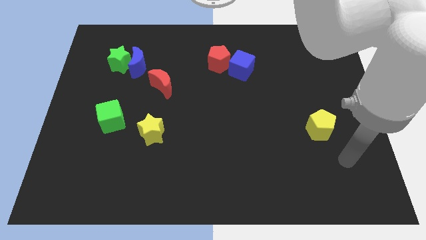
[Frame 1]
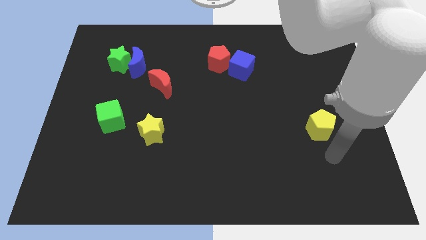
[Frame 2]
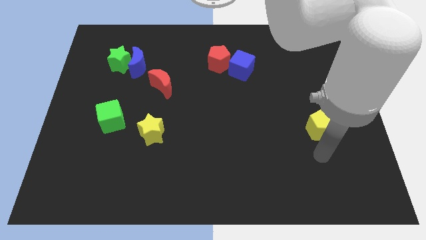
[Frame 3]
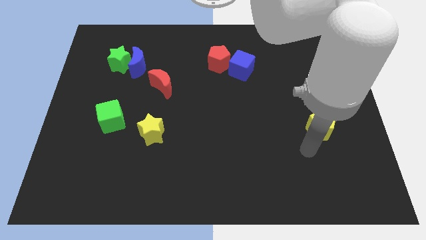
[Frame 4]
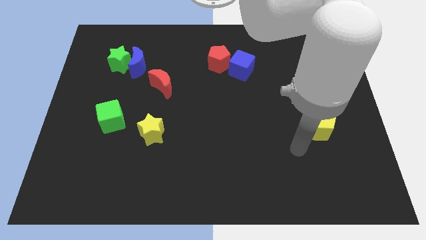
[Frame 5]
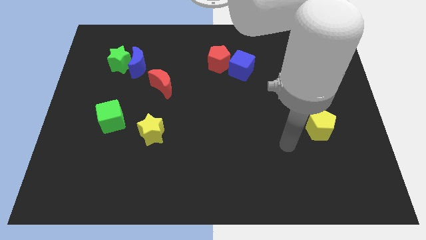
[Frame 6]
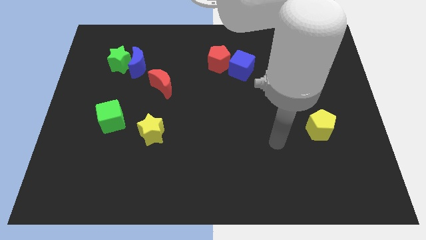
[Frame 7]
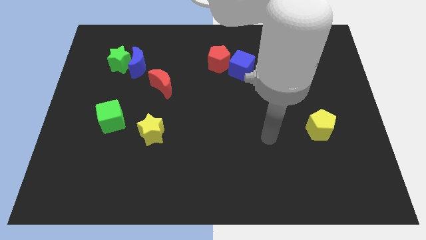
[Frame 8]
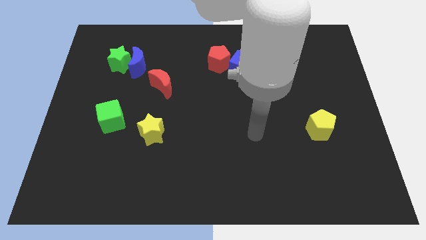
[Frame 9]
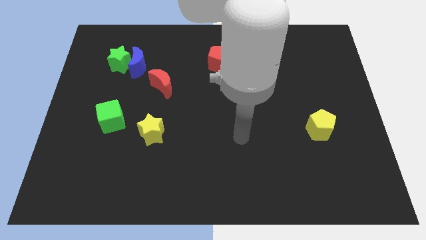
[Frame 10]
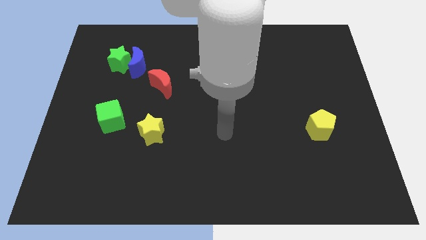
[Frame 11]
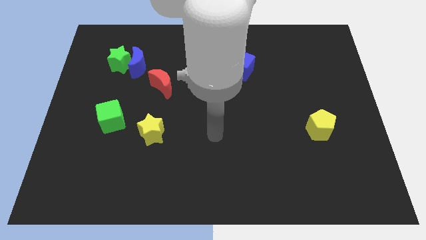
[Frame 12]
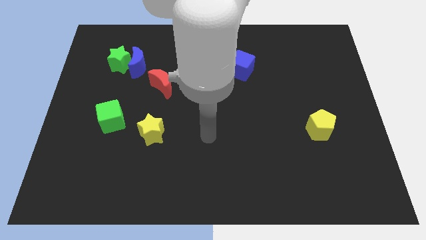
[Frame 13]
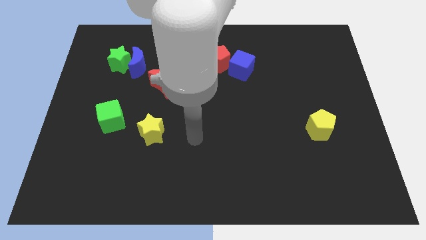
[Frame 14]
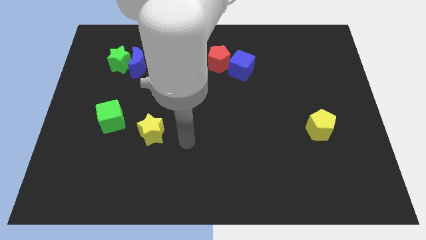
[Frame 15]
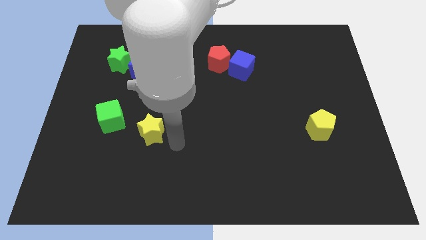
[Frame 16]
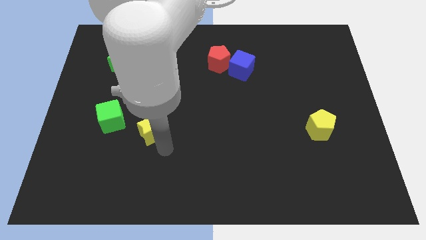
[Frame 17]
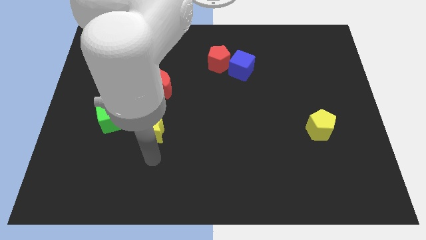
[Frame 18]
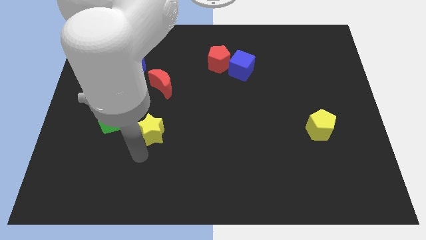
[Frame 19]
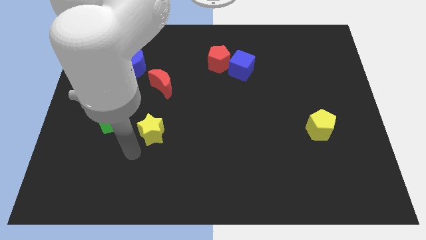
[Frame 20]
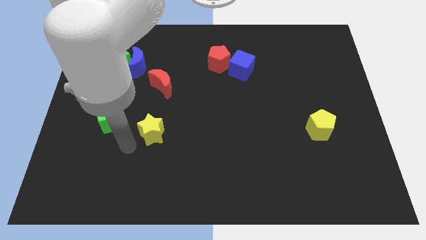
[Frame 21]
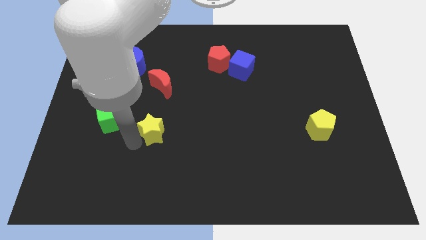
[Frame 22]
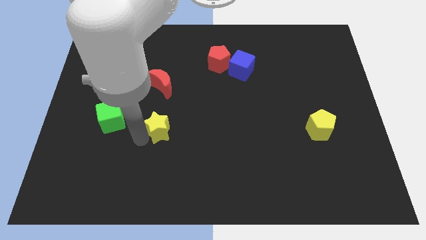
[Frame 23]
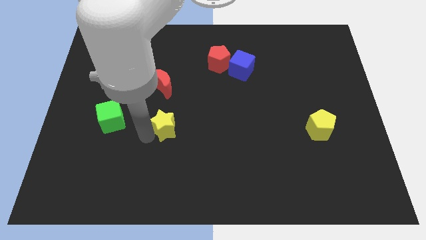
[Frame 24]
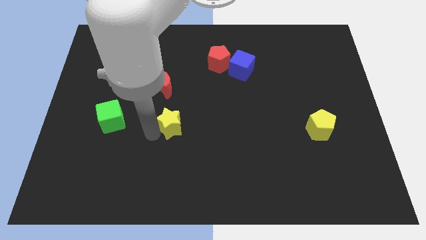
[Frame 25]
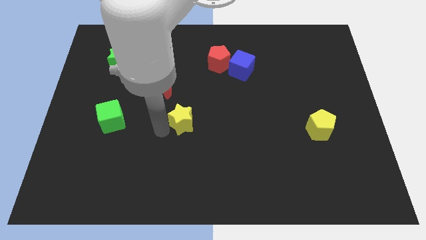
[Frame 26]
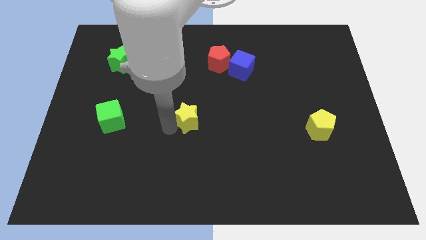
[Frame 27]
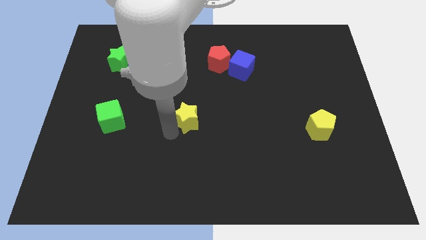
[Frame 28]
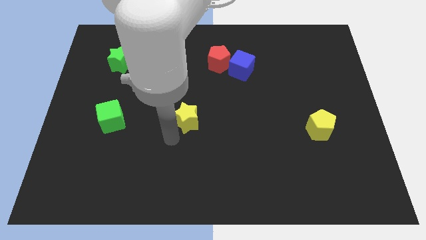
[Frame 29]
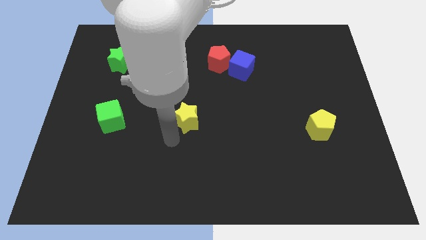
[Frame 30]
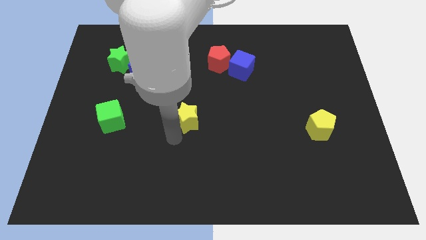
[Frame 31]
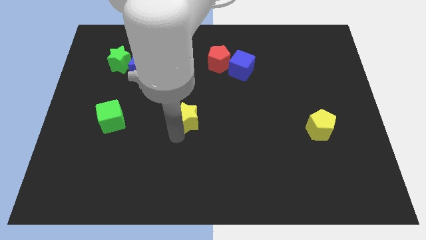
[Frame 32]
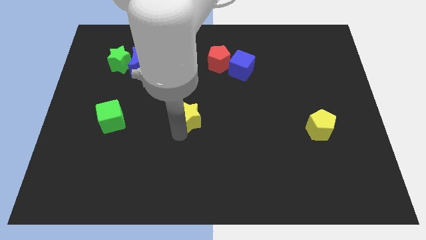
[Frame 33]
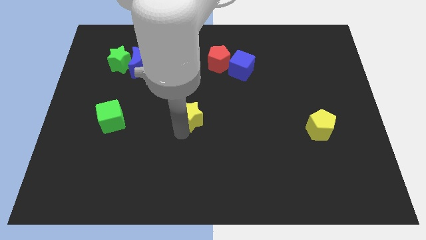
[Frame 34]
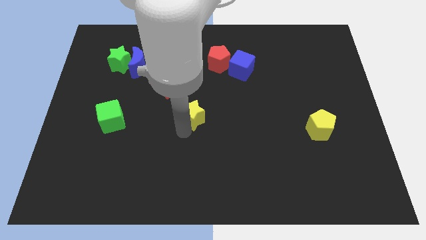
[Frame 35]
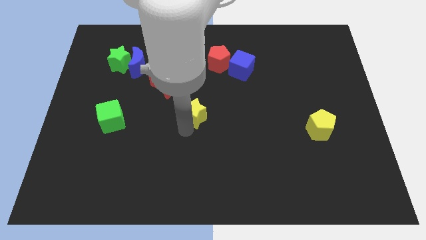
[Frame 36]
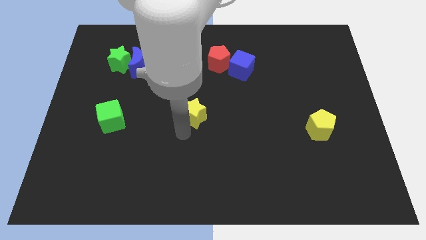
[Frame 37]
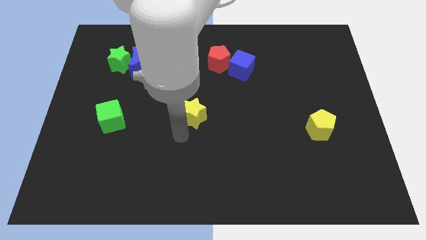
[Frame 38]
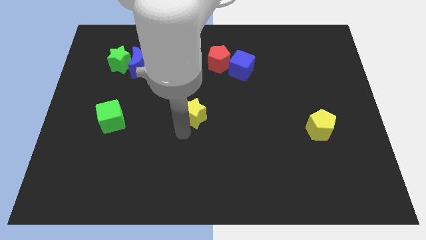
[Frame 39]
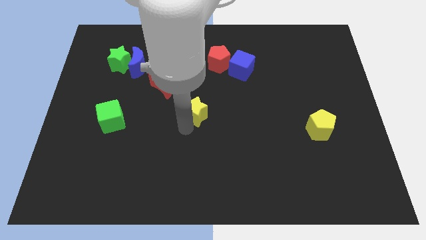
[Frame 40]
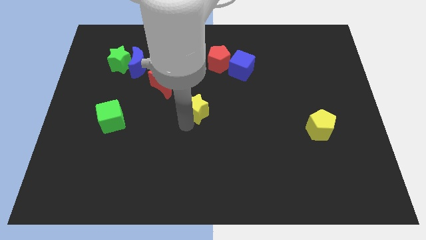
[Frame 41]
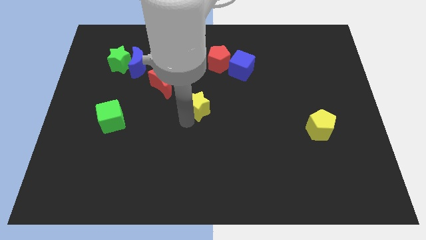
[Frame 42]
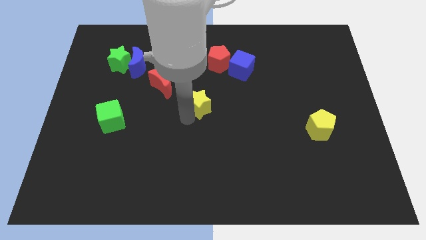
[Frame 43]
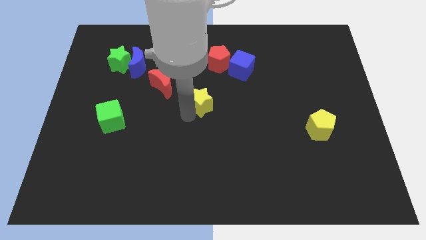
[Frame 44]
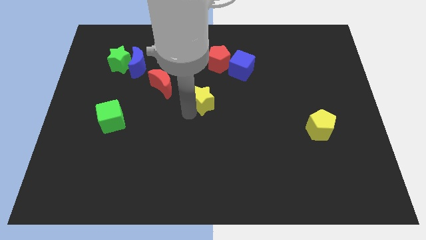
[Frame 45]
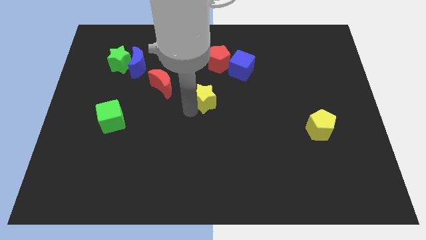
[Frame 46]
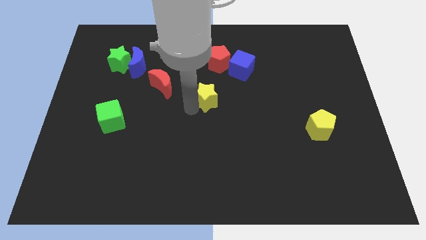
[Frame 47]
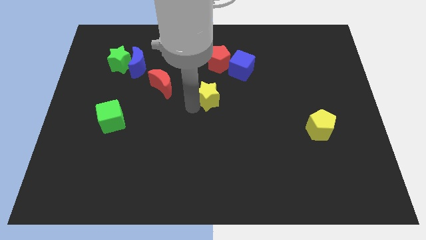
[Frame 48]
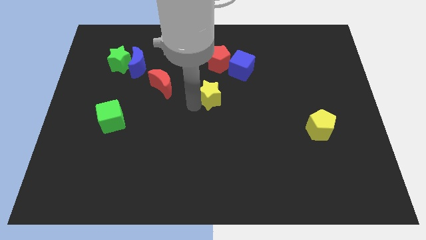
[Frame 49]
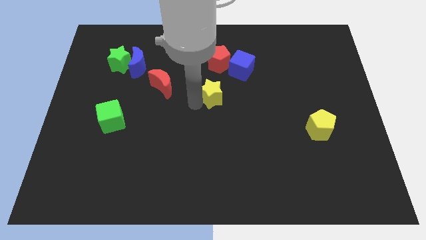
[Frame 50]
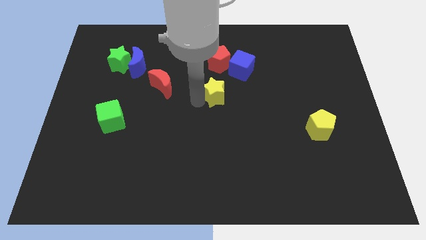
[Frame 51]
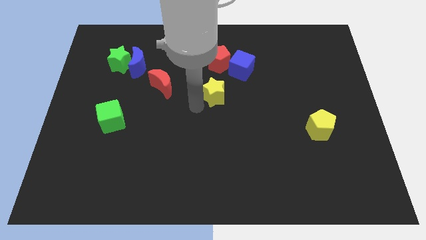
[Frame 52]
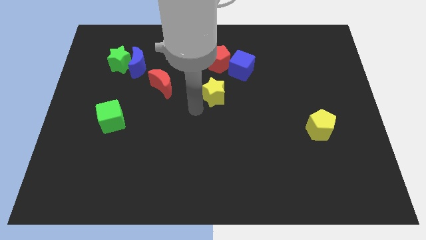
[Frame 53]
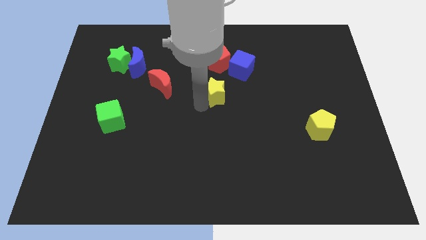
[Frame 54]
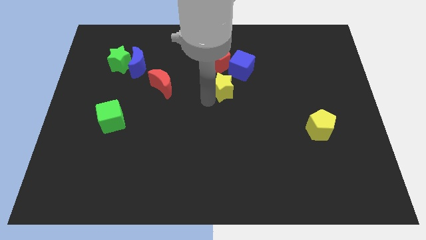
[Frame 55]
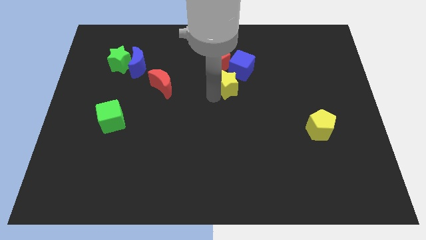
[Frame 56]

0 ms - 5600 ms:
move the yellow star to the bottom right of the red pentagon

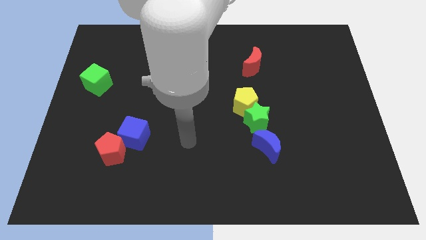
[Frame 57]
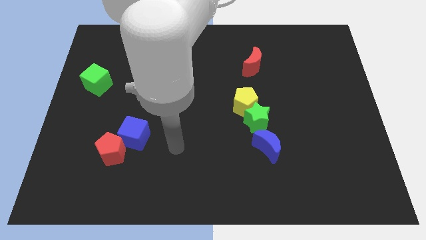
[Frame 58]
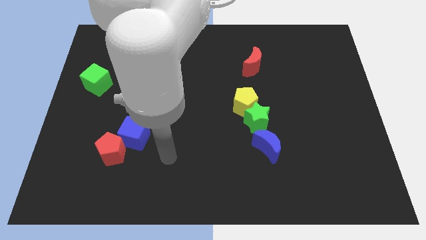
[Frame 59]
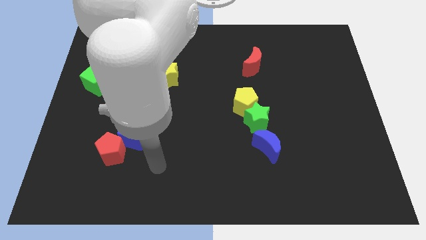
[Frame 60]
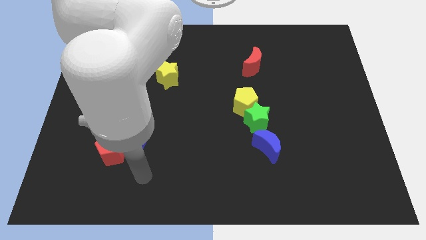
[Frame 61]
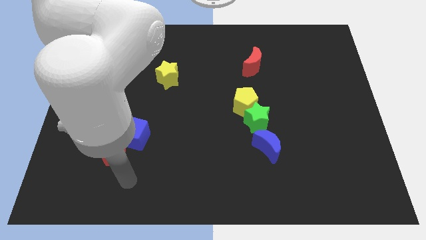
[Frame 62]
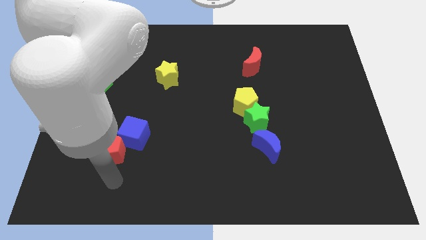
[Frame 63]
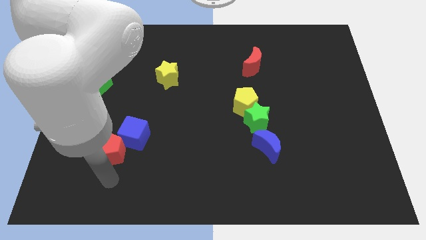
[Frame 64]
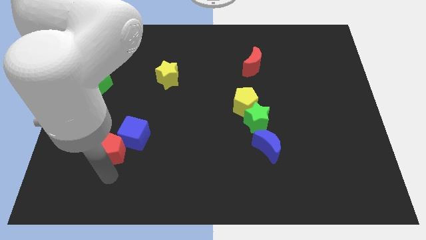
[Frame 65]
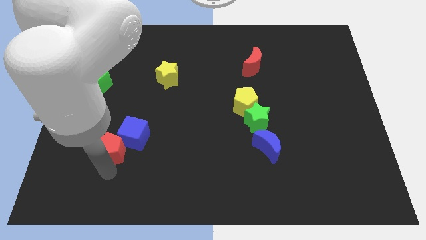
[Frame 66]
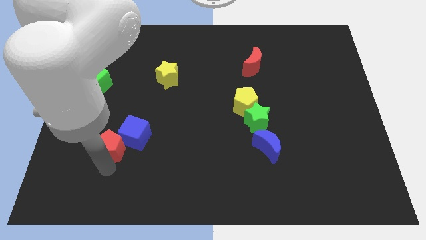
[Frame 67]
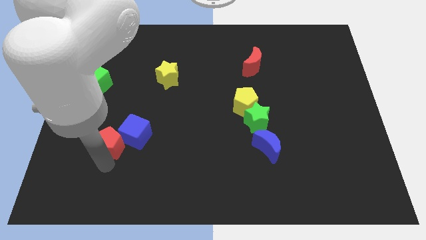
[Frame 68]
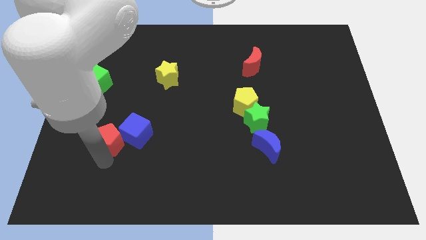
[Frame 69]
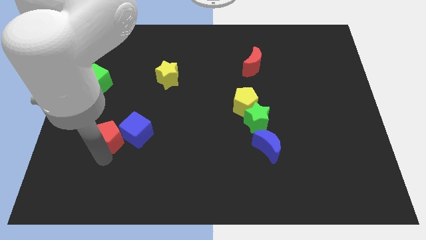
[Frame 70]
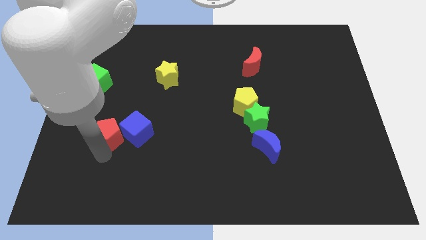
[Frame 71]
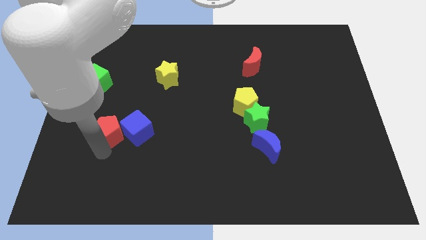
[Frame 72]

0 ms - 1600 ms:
slide the red pentagon diagonally up and to the left of the blue cube
